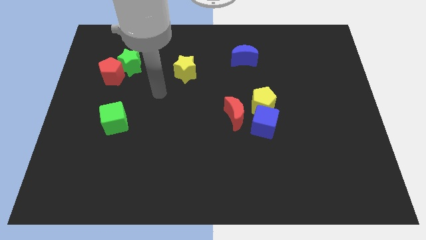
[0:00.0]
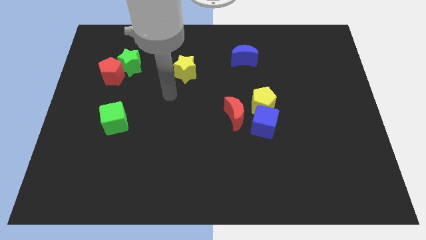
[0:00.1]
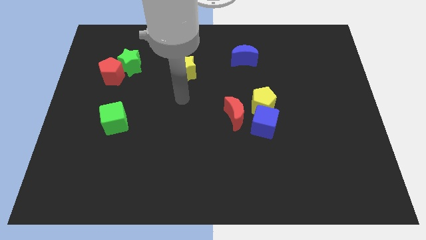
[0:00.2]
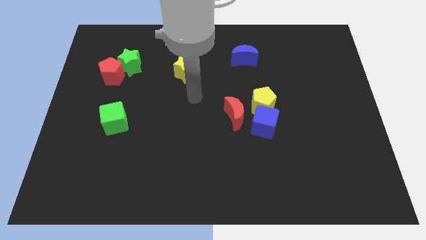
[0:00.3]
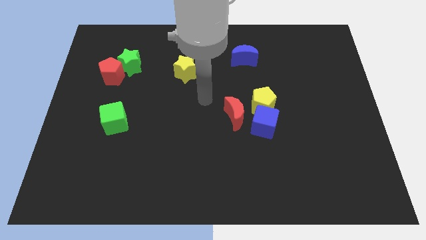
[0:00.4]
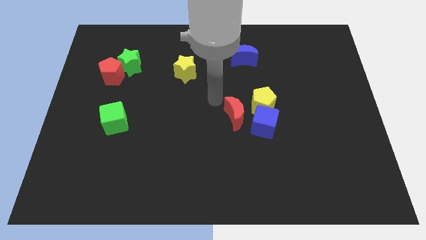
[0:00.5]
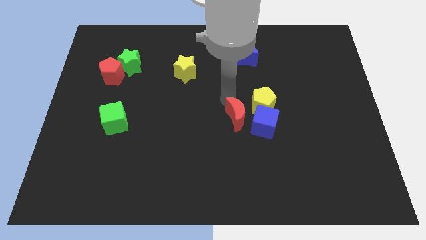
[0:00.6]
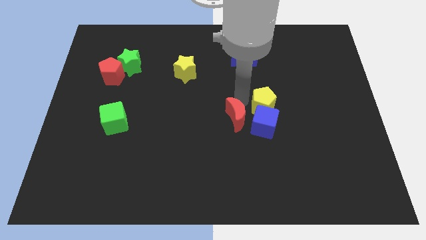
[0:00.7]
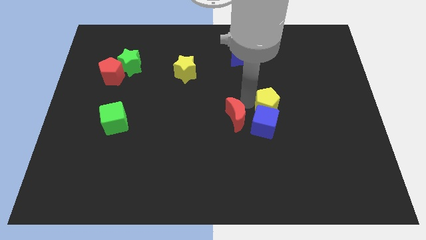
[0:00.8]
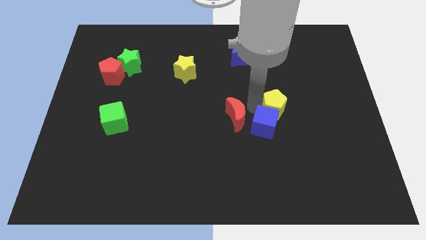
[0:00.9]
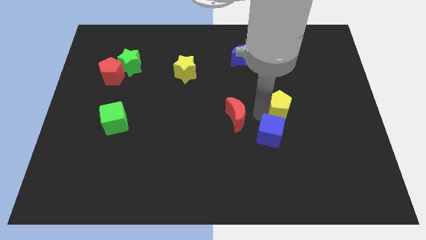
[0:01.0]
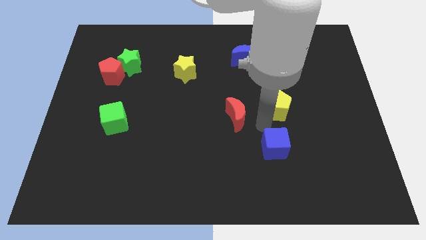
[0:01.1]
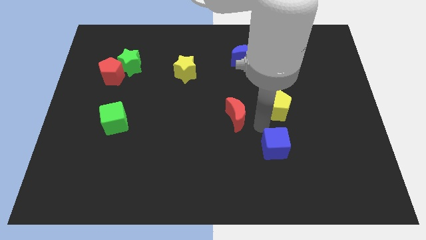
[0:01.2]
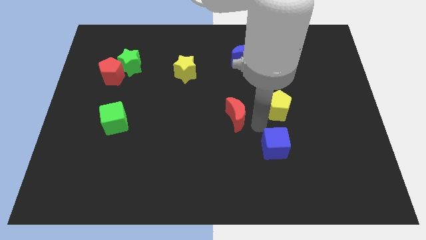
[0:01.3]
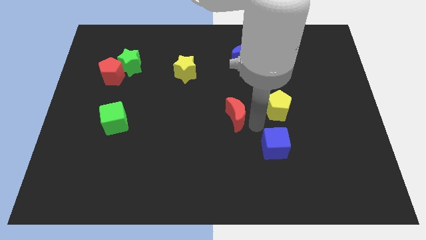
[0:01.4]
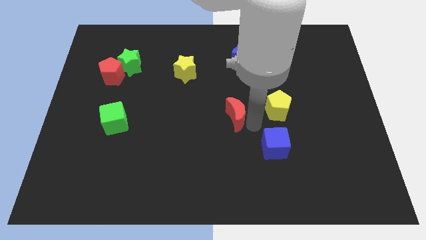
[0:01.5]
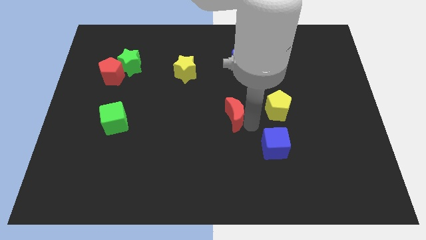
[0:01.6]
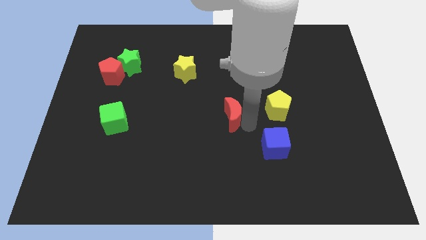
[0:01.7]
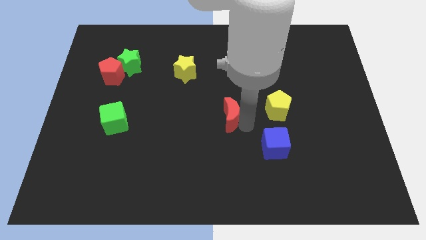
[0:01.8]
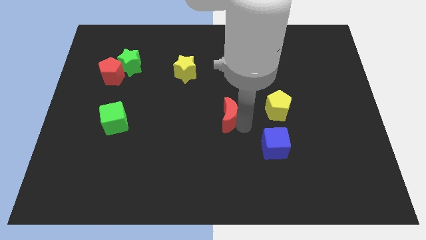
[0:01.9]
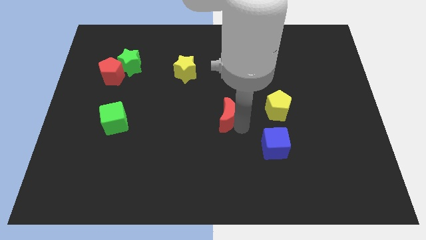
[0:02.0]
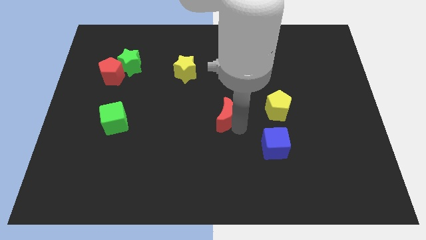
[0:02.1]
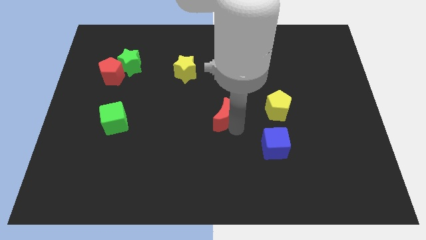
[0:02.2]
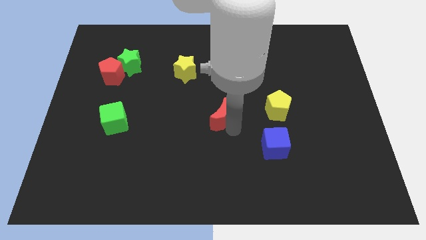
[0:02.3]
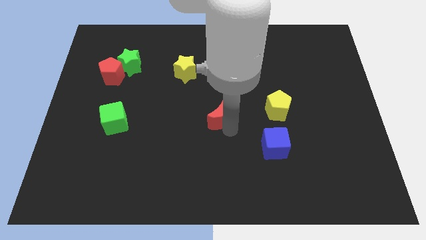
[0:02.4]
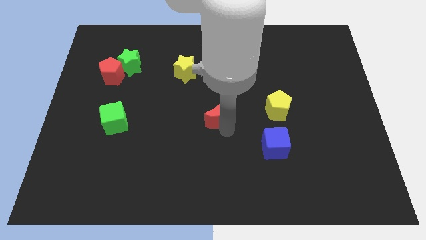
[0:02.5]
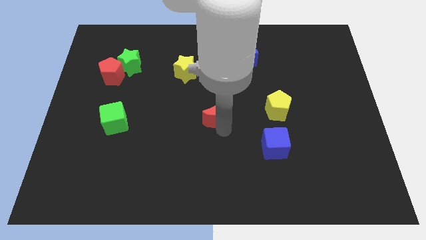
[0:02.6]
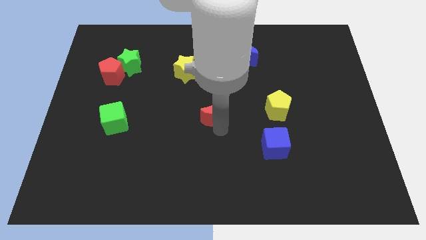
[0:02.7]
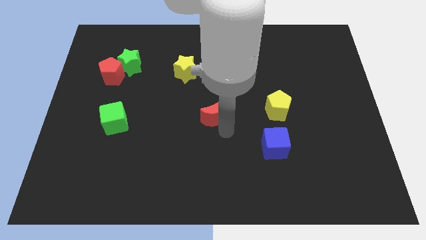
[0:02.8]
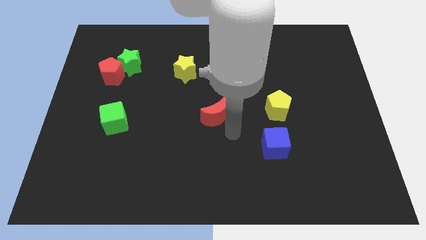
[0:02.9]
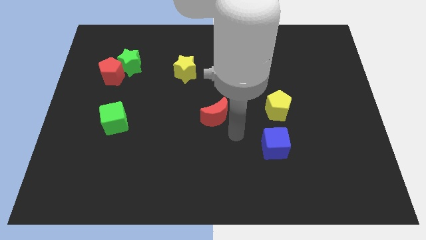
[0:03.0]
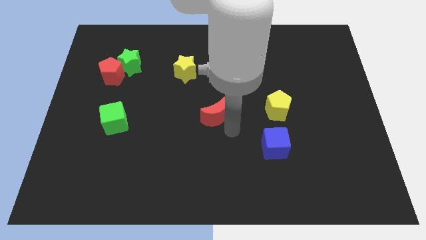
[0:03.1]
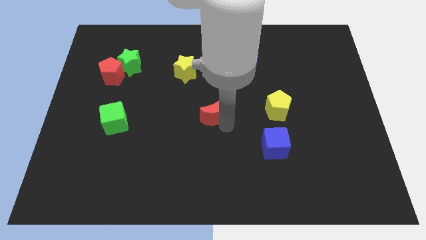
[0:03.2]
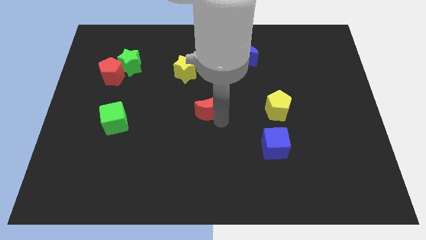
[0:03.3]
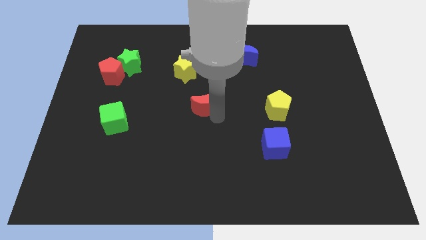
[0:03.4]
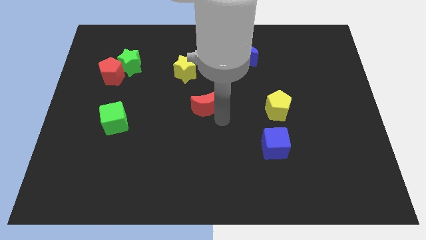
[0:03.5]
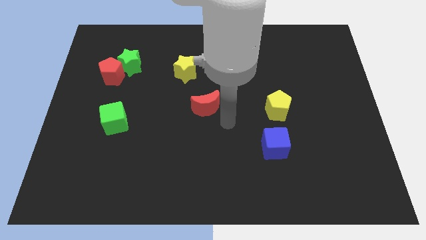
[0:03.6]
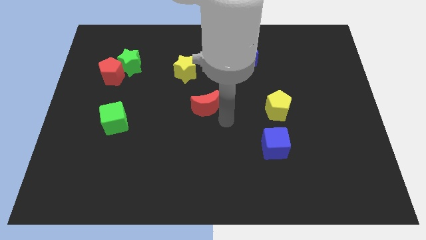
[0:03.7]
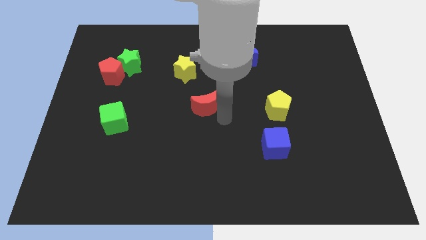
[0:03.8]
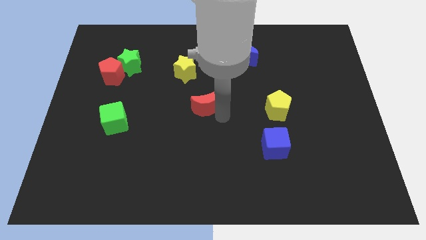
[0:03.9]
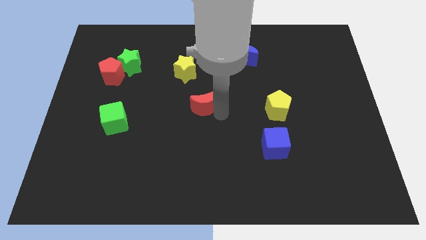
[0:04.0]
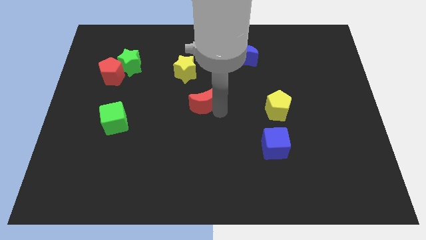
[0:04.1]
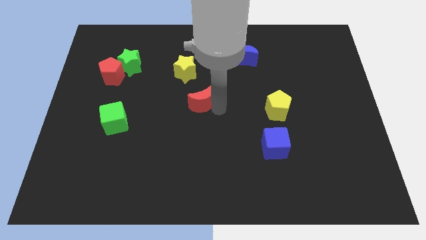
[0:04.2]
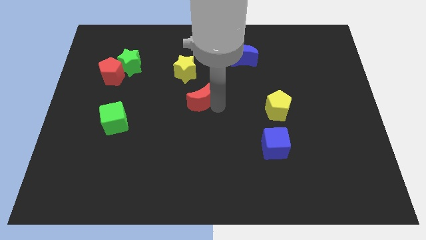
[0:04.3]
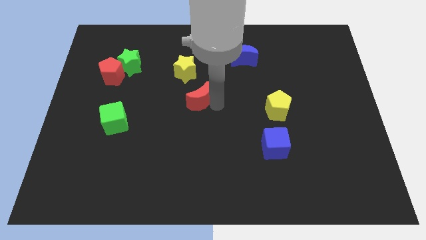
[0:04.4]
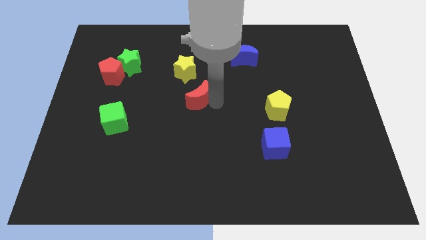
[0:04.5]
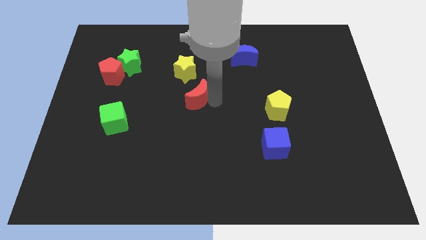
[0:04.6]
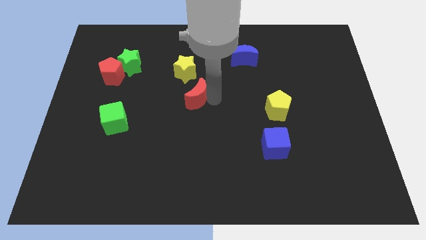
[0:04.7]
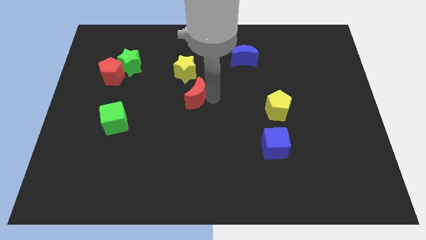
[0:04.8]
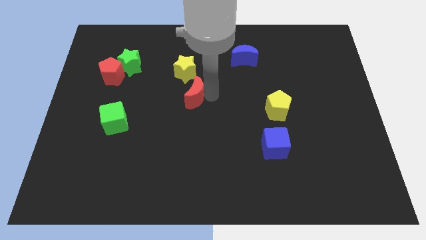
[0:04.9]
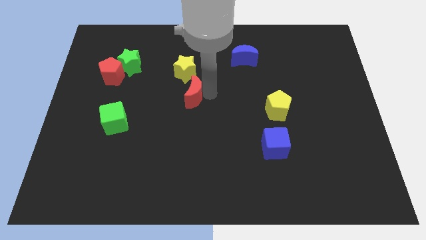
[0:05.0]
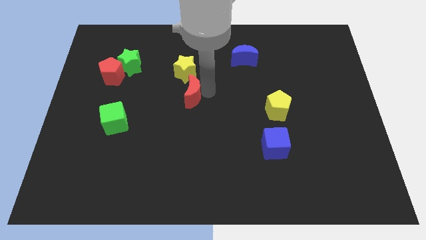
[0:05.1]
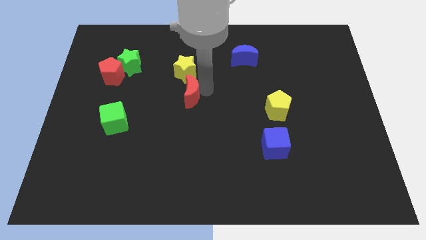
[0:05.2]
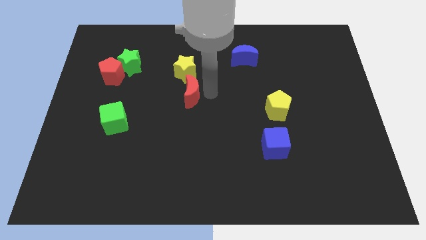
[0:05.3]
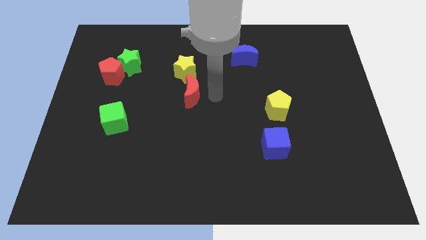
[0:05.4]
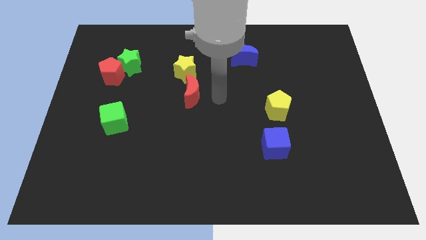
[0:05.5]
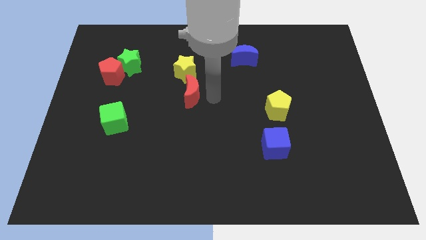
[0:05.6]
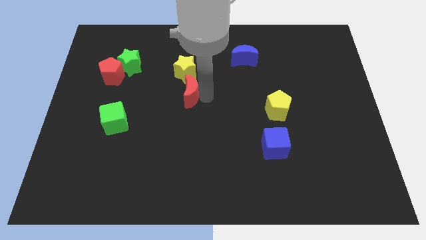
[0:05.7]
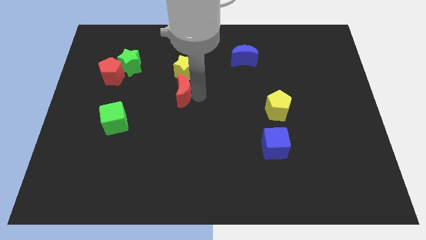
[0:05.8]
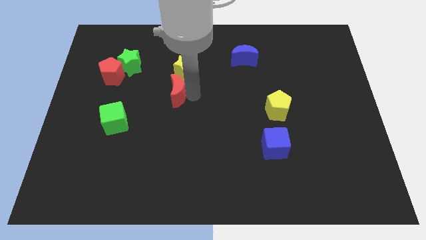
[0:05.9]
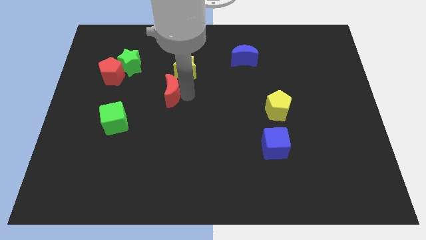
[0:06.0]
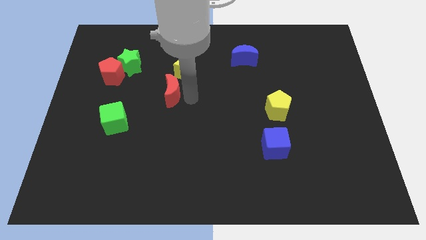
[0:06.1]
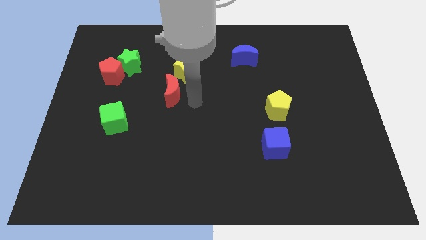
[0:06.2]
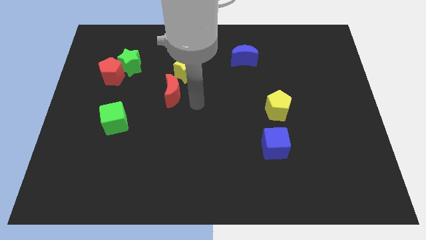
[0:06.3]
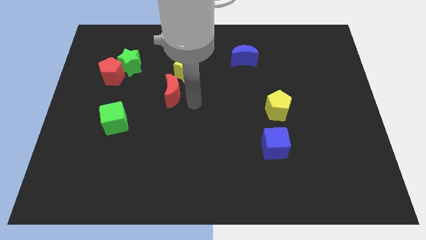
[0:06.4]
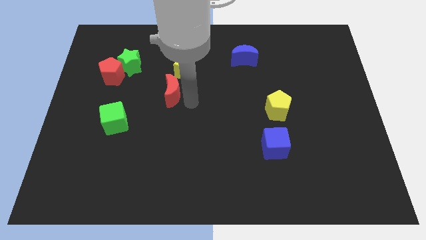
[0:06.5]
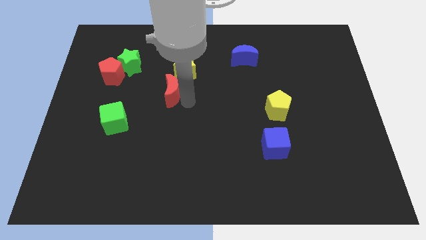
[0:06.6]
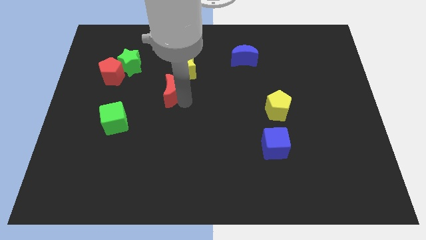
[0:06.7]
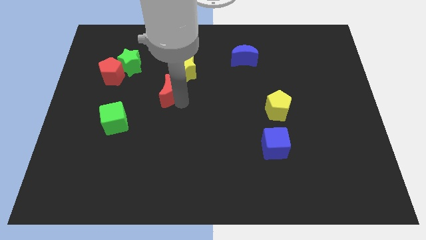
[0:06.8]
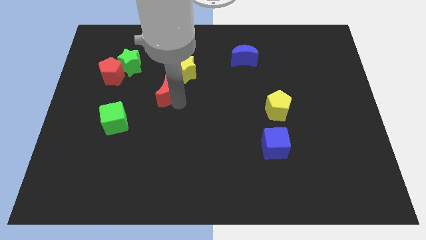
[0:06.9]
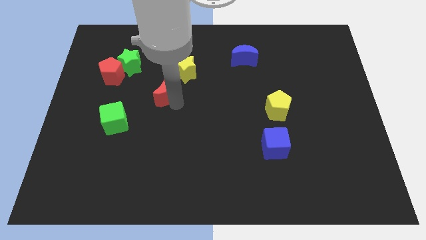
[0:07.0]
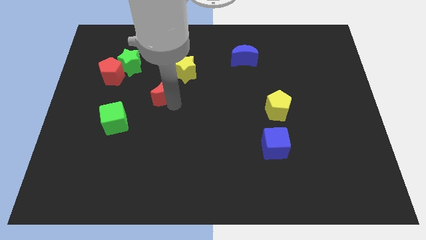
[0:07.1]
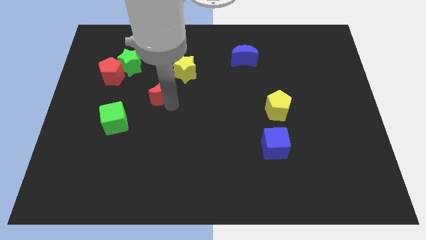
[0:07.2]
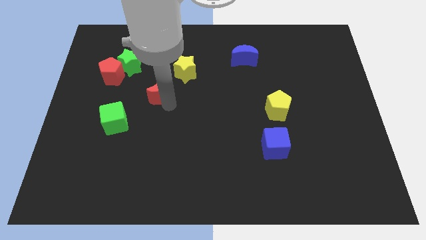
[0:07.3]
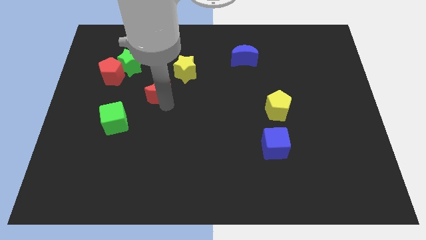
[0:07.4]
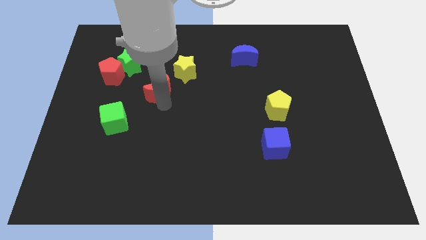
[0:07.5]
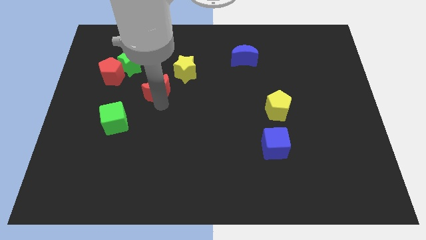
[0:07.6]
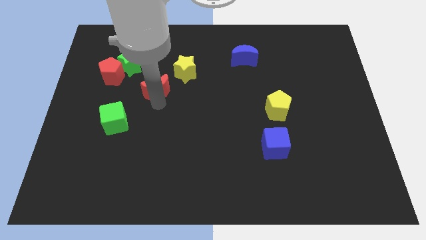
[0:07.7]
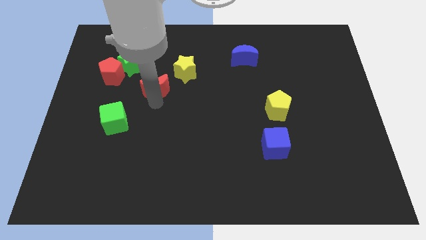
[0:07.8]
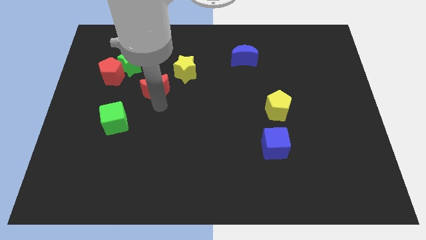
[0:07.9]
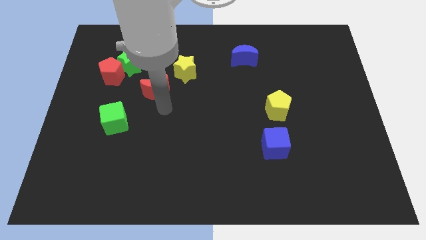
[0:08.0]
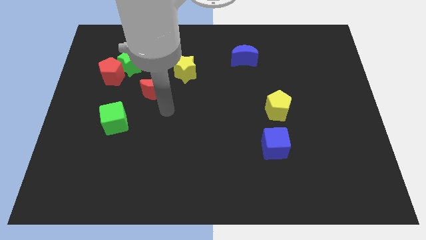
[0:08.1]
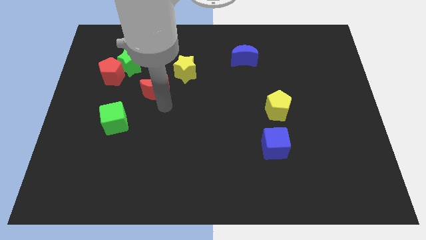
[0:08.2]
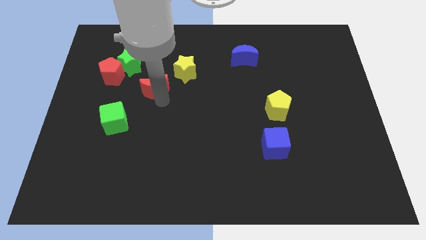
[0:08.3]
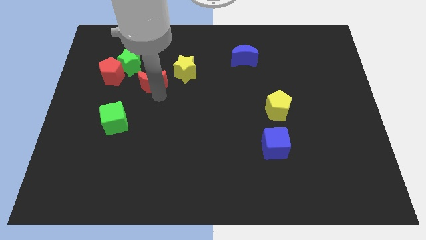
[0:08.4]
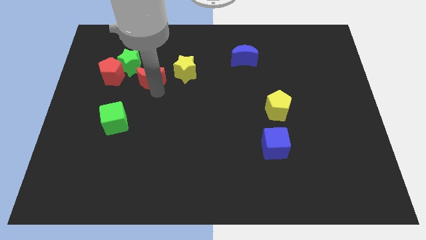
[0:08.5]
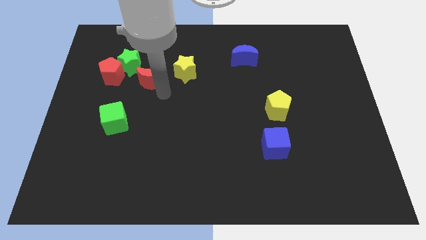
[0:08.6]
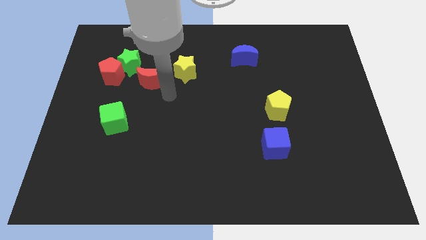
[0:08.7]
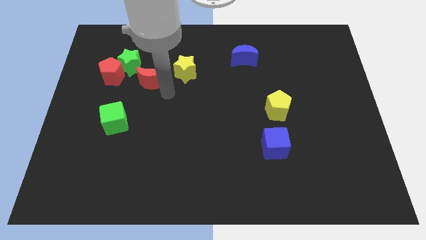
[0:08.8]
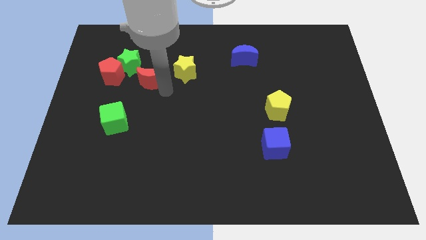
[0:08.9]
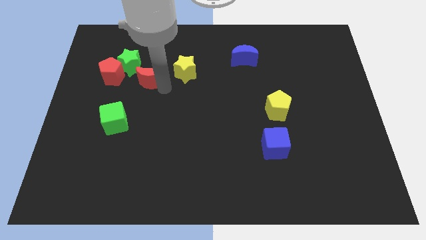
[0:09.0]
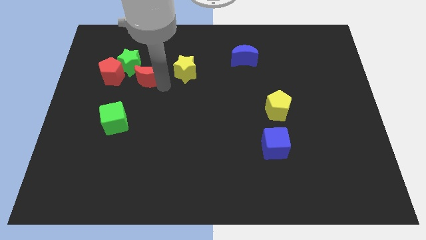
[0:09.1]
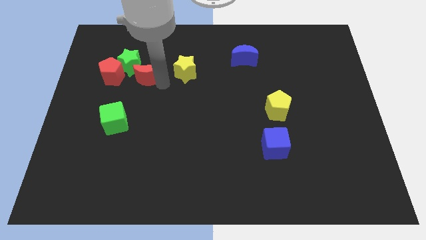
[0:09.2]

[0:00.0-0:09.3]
push the red moon towards the green star
